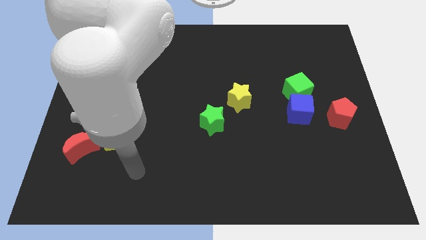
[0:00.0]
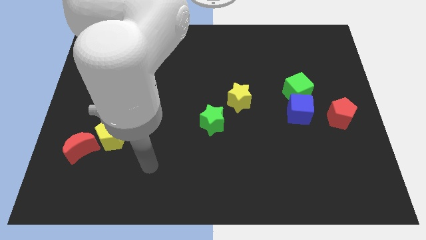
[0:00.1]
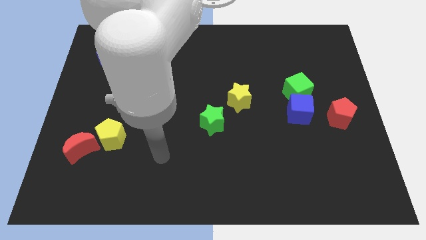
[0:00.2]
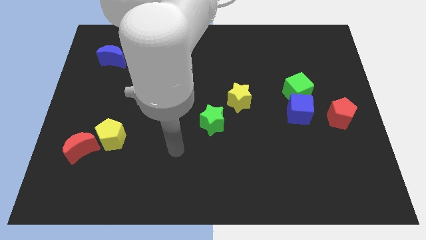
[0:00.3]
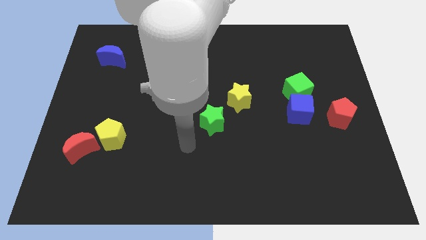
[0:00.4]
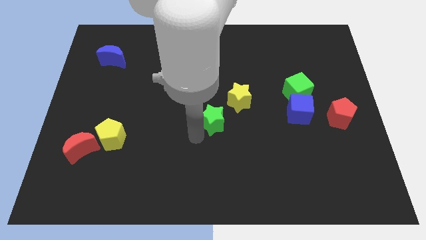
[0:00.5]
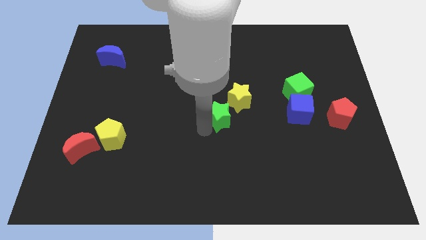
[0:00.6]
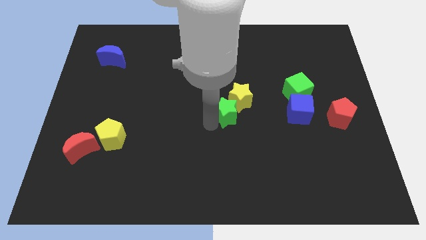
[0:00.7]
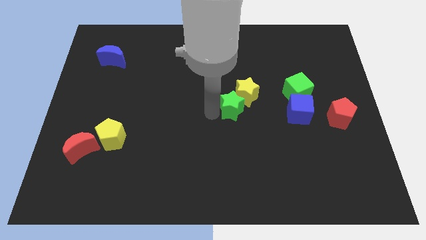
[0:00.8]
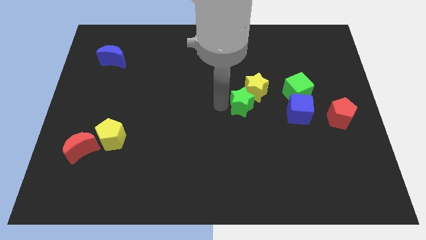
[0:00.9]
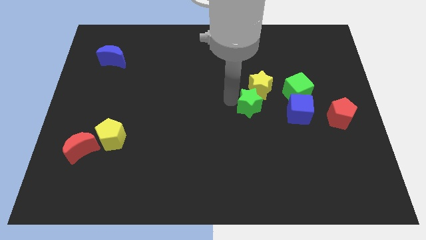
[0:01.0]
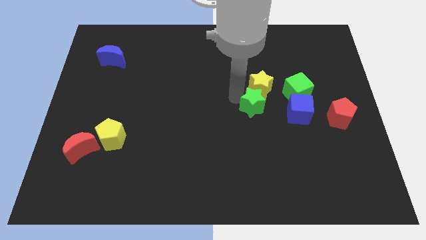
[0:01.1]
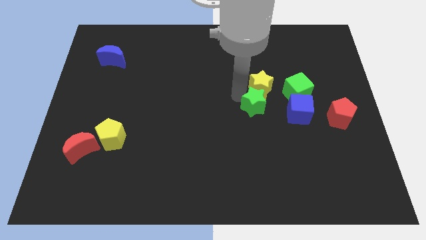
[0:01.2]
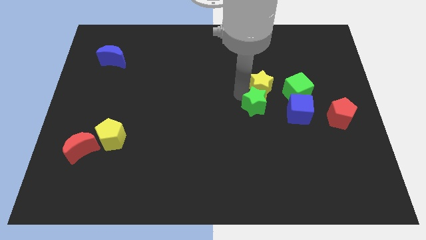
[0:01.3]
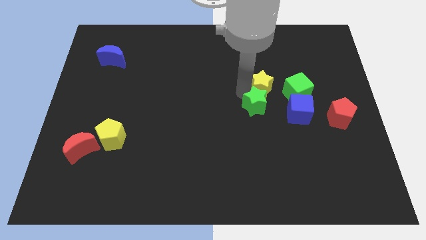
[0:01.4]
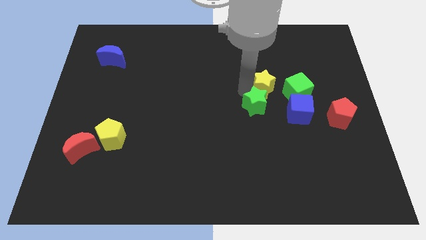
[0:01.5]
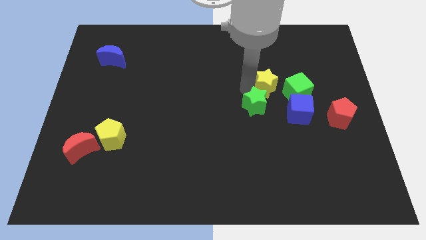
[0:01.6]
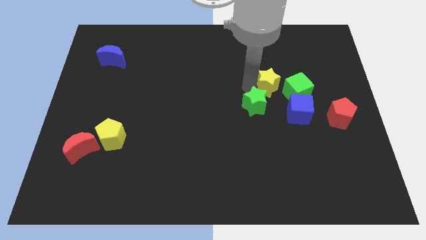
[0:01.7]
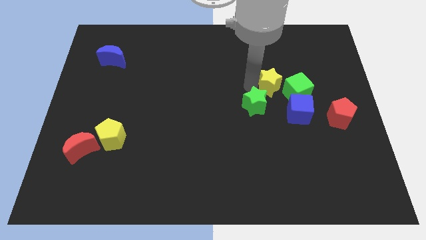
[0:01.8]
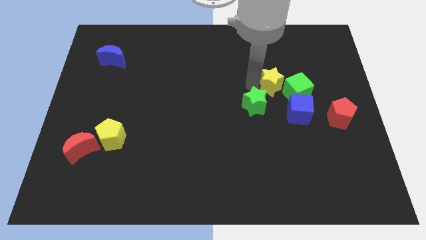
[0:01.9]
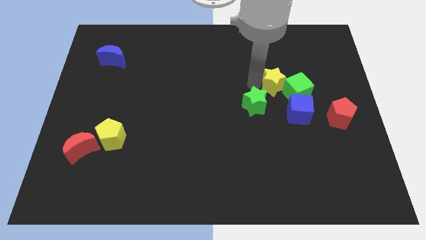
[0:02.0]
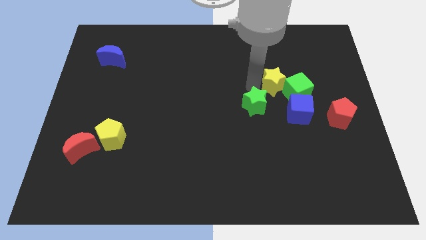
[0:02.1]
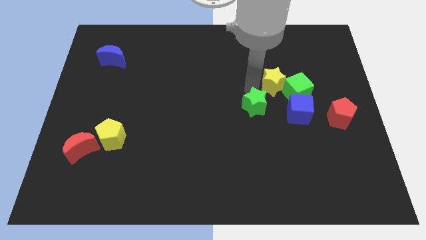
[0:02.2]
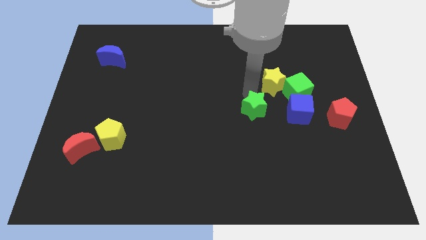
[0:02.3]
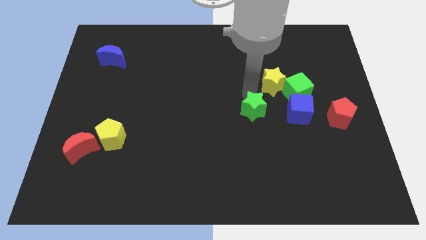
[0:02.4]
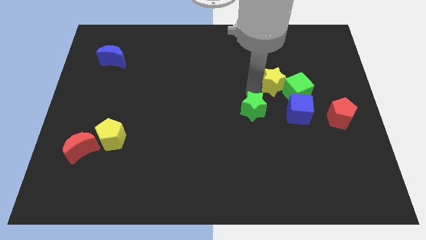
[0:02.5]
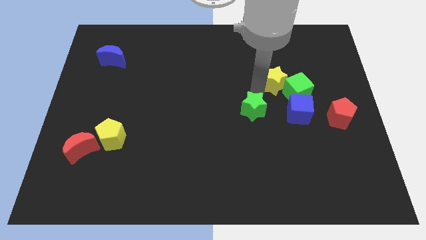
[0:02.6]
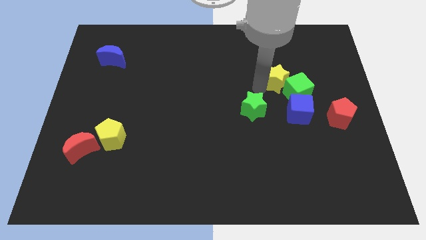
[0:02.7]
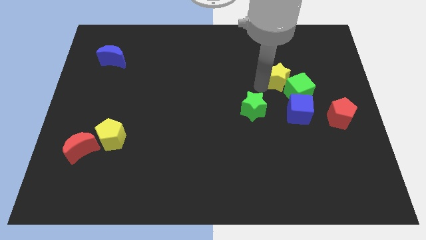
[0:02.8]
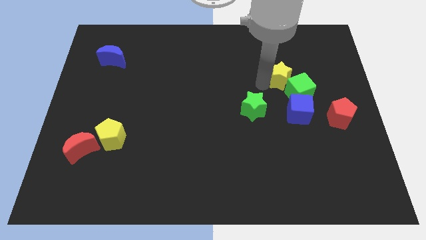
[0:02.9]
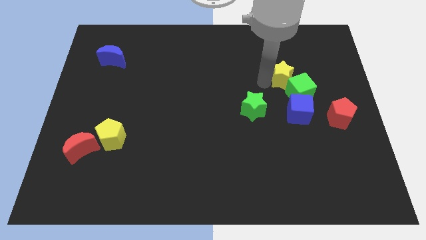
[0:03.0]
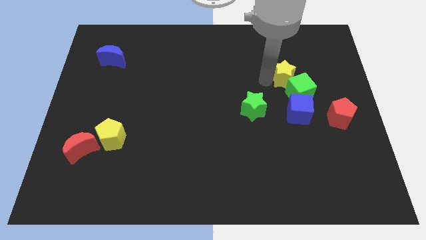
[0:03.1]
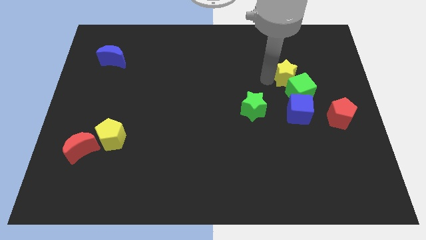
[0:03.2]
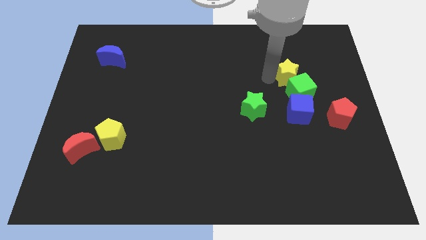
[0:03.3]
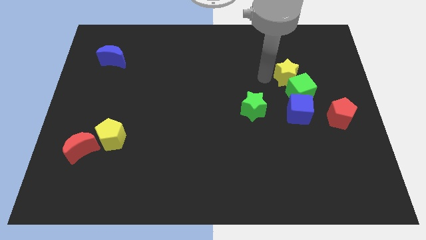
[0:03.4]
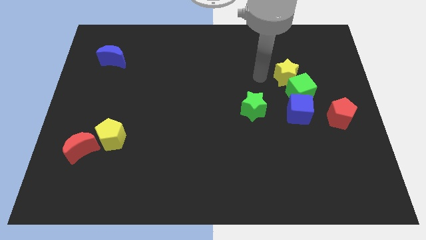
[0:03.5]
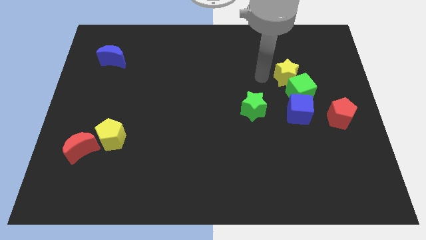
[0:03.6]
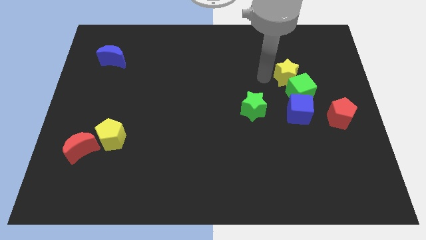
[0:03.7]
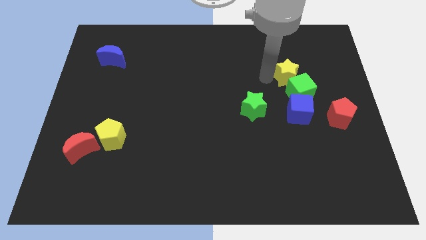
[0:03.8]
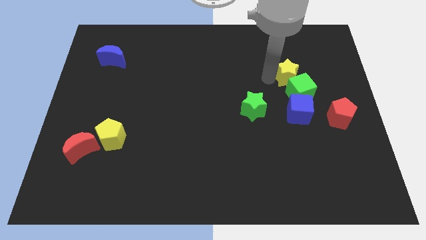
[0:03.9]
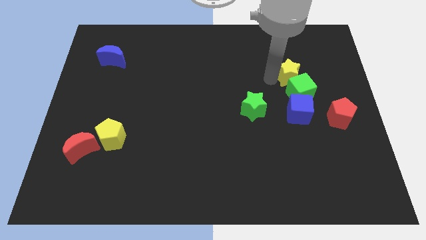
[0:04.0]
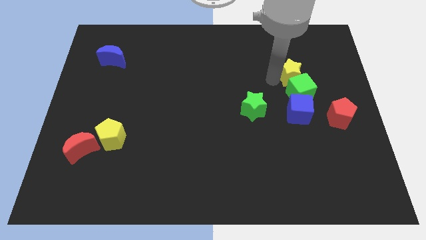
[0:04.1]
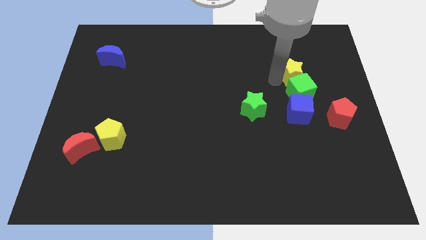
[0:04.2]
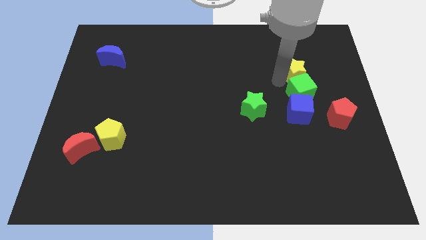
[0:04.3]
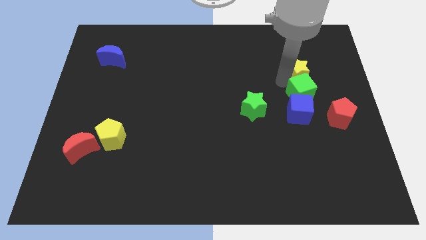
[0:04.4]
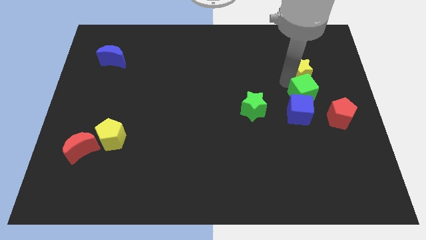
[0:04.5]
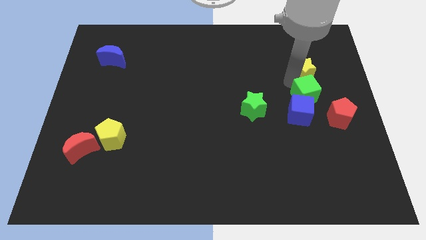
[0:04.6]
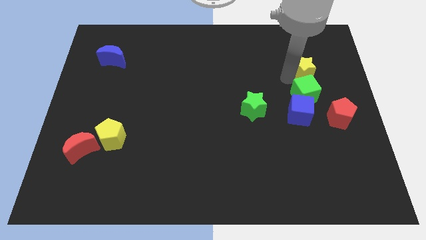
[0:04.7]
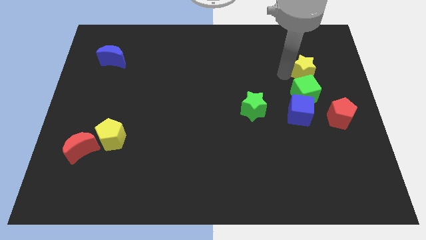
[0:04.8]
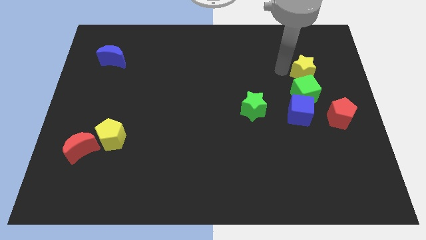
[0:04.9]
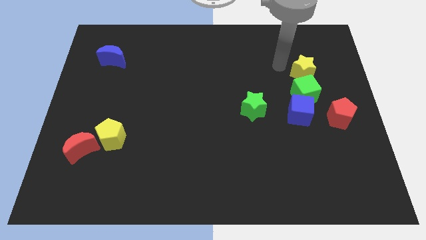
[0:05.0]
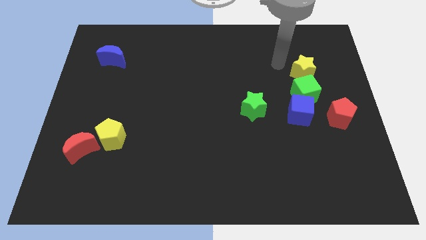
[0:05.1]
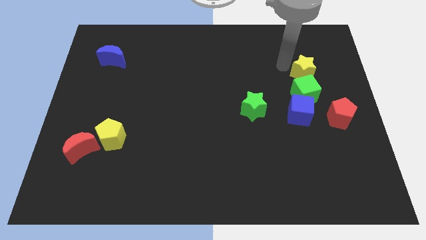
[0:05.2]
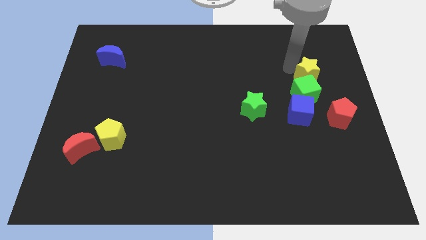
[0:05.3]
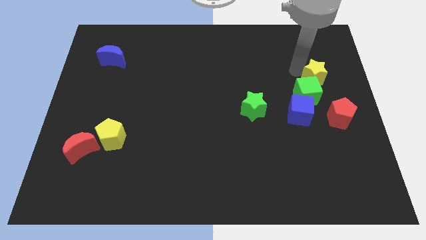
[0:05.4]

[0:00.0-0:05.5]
push the yellow star above the red pentagon

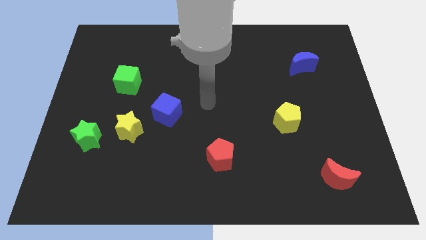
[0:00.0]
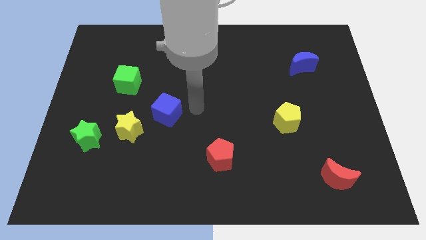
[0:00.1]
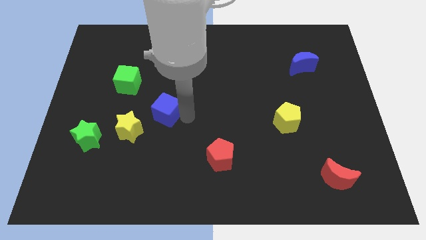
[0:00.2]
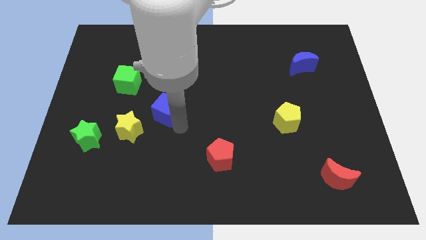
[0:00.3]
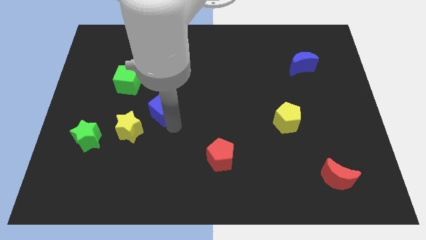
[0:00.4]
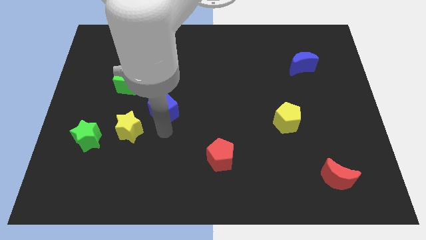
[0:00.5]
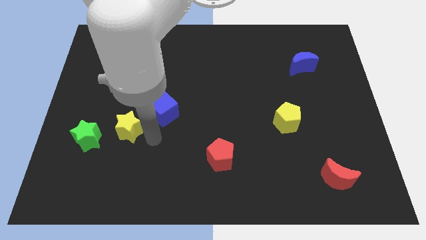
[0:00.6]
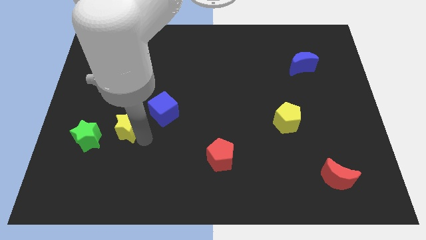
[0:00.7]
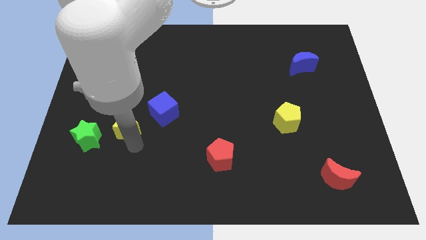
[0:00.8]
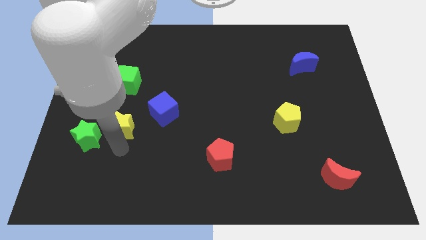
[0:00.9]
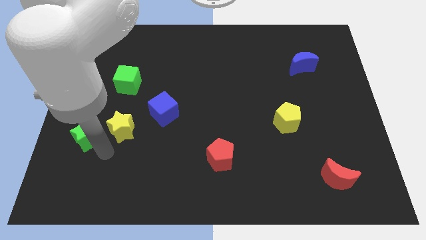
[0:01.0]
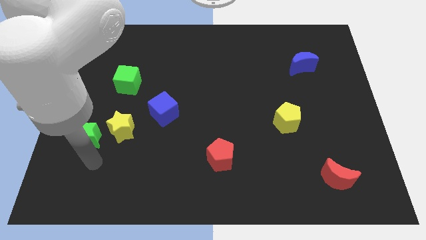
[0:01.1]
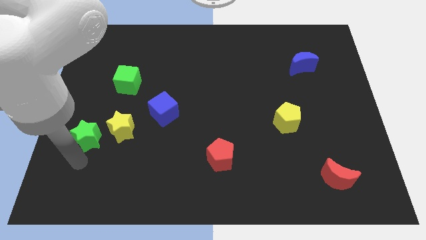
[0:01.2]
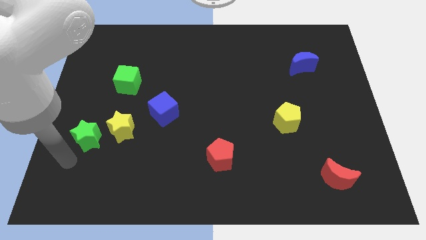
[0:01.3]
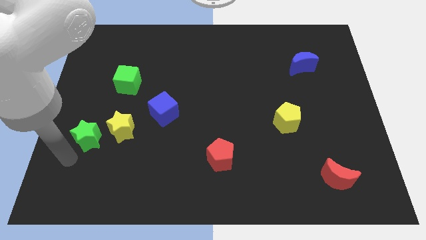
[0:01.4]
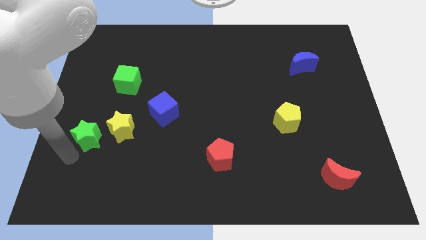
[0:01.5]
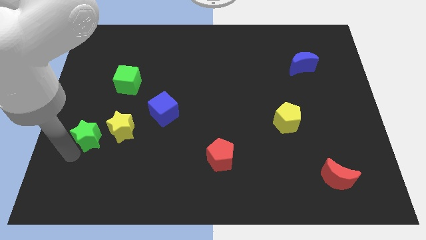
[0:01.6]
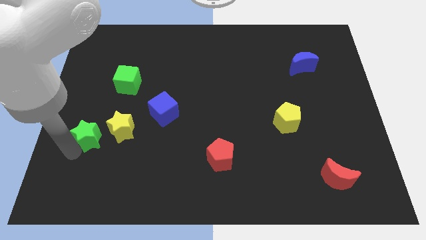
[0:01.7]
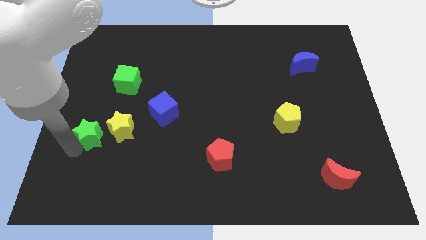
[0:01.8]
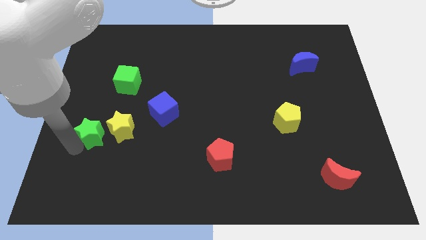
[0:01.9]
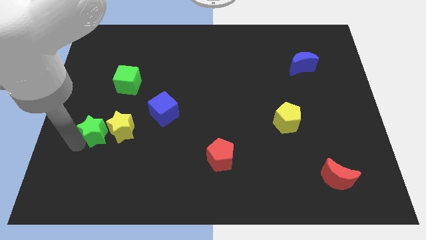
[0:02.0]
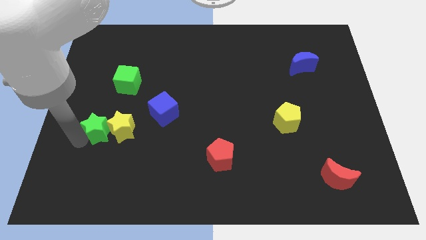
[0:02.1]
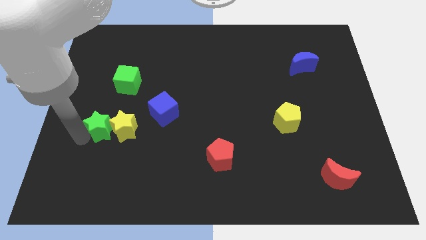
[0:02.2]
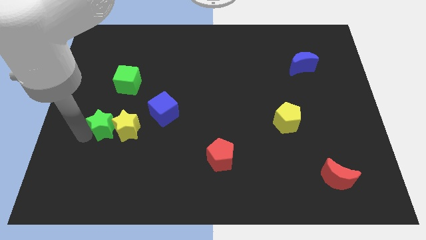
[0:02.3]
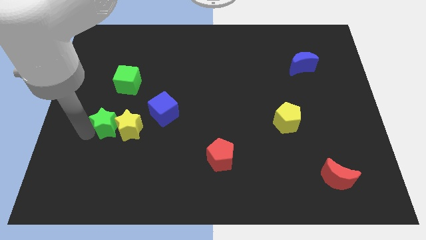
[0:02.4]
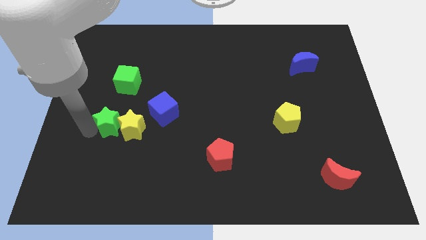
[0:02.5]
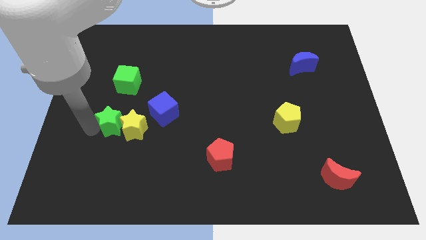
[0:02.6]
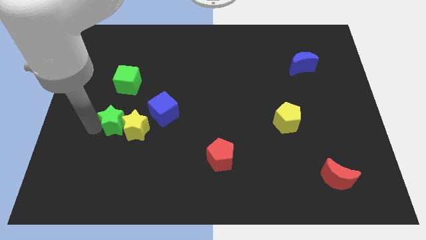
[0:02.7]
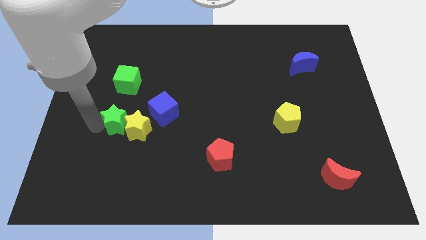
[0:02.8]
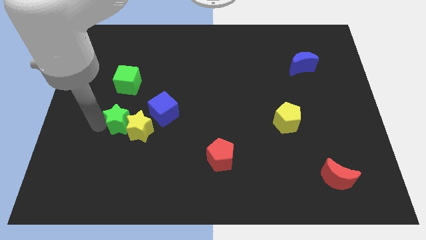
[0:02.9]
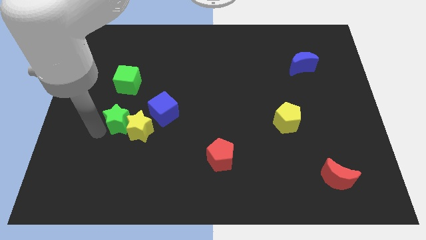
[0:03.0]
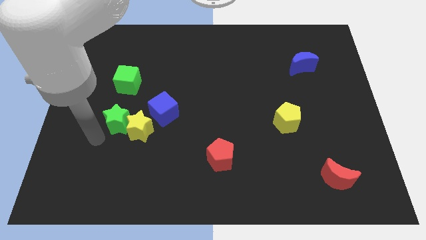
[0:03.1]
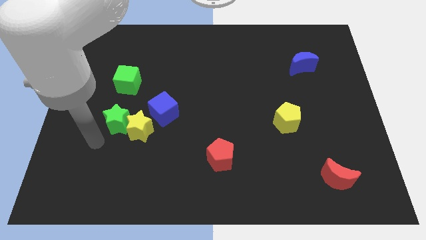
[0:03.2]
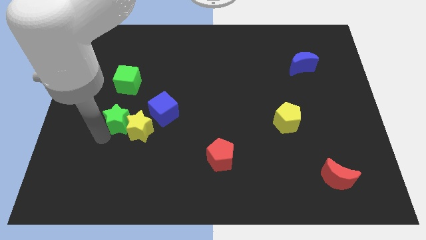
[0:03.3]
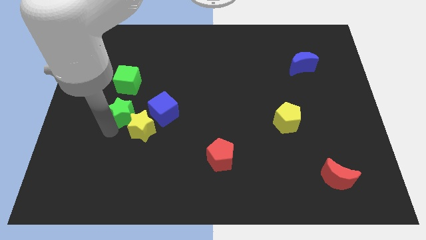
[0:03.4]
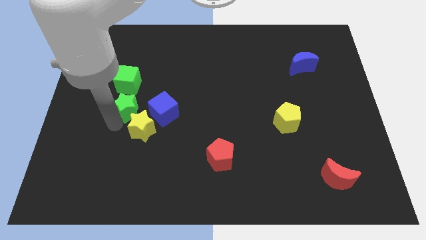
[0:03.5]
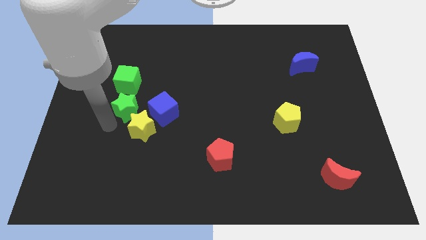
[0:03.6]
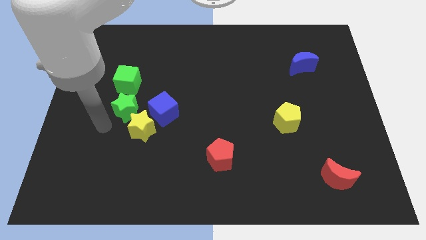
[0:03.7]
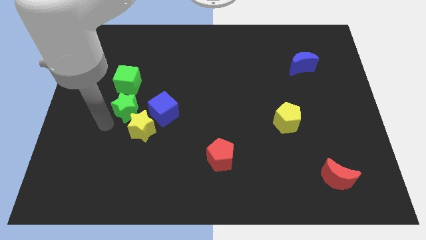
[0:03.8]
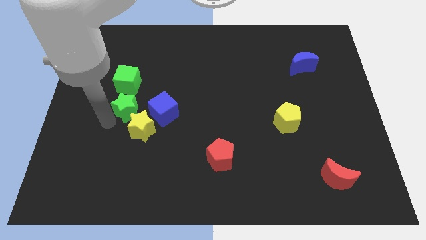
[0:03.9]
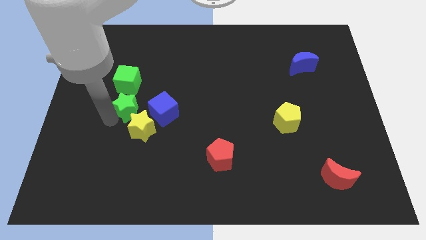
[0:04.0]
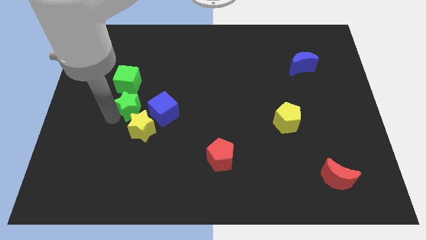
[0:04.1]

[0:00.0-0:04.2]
slide the green star diagonally down and to the right of the green cube
